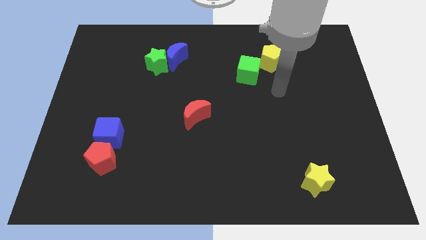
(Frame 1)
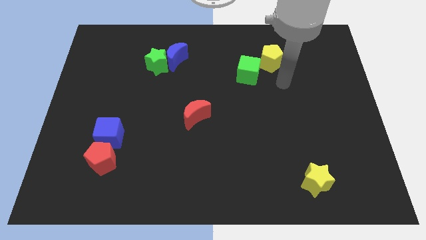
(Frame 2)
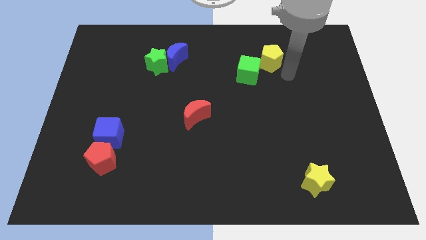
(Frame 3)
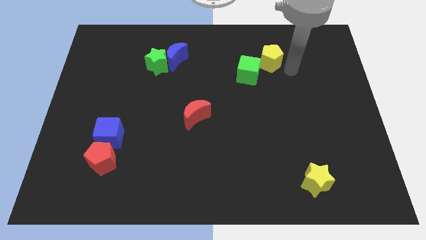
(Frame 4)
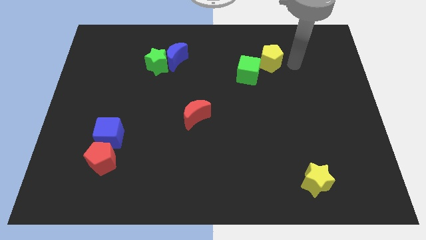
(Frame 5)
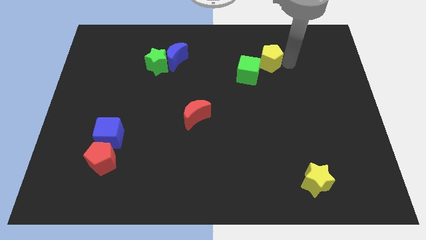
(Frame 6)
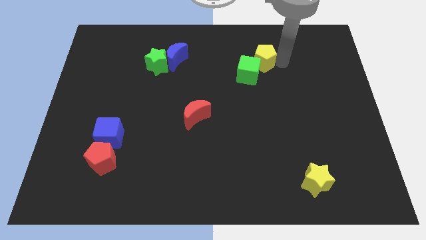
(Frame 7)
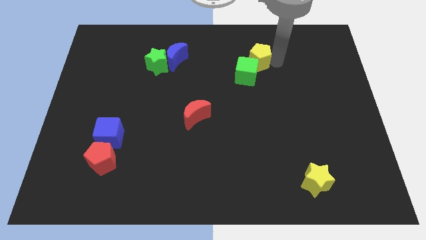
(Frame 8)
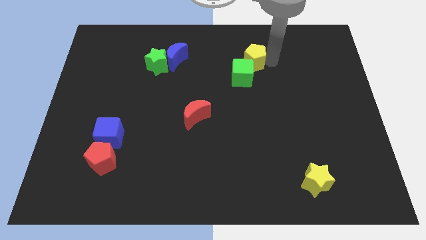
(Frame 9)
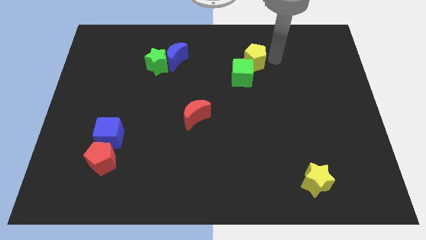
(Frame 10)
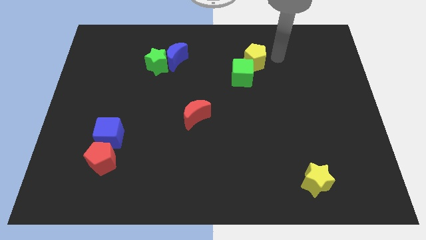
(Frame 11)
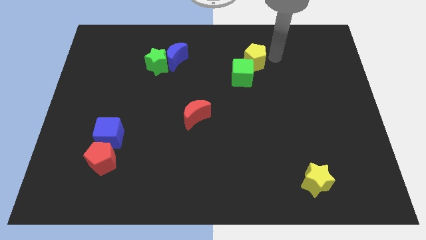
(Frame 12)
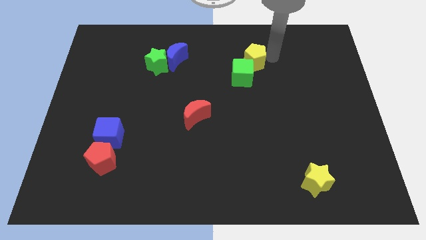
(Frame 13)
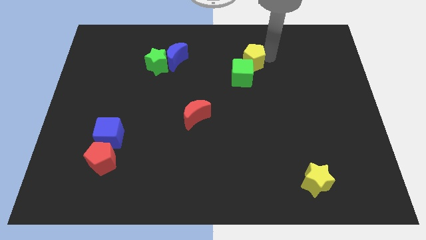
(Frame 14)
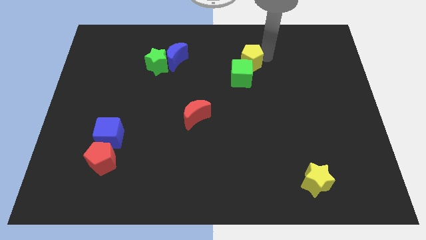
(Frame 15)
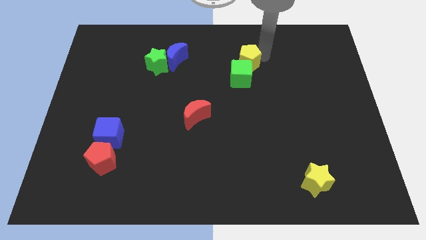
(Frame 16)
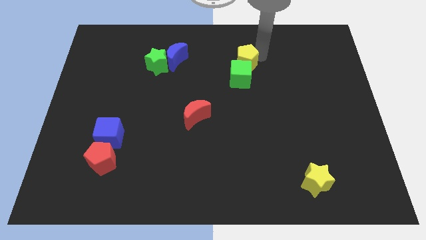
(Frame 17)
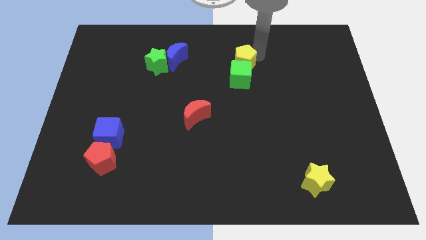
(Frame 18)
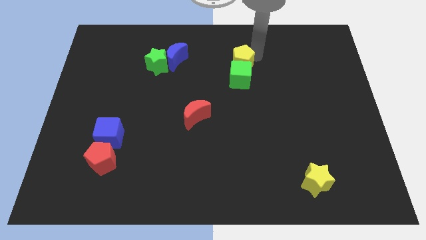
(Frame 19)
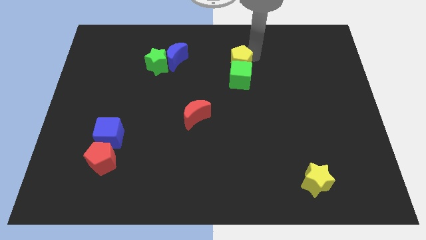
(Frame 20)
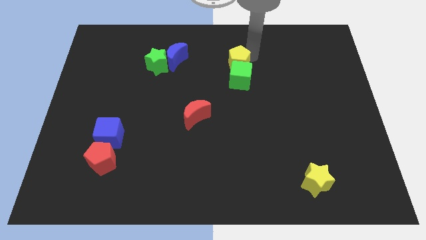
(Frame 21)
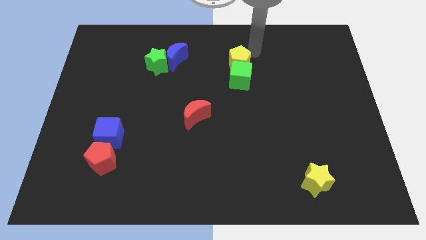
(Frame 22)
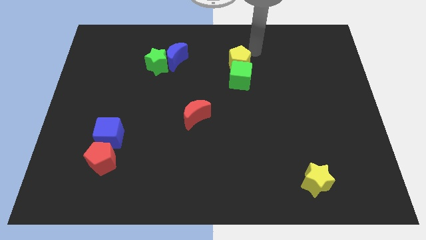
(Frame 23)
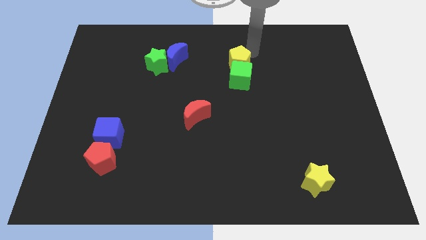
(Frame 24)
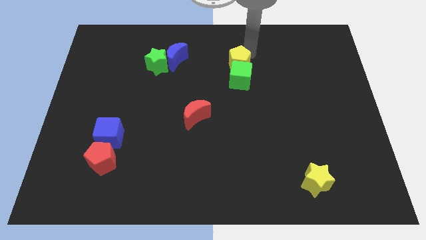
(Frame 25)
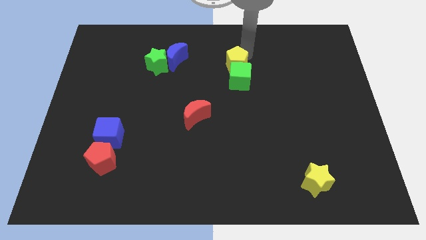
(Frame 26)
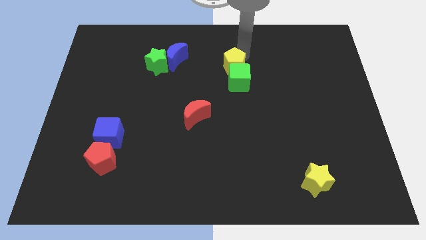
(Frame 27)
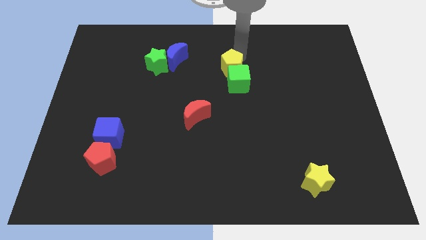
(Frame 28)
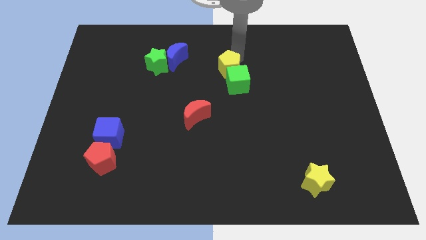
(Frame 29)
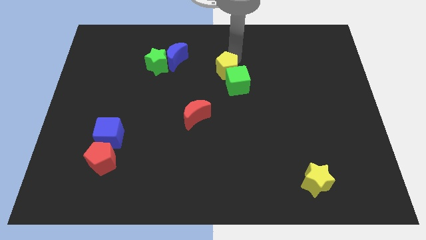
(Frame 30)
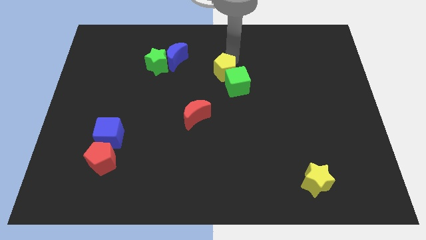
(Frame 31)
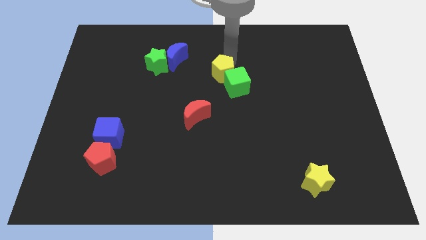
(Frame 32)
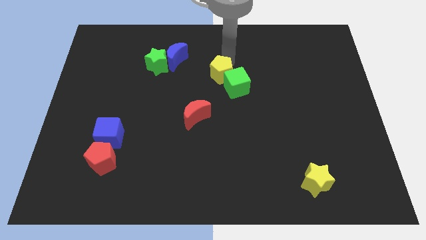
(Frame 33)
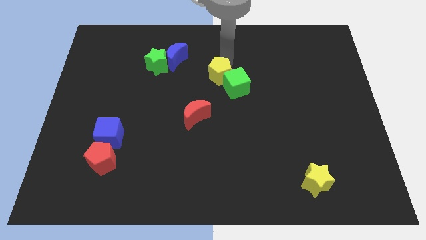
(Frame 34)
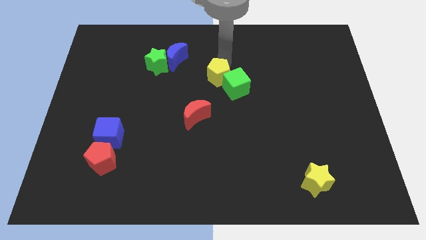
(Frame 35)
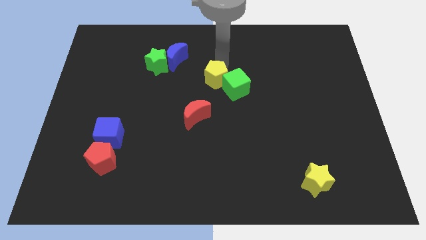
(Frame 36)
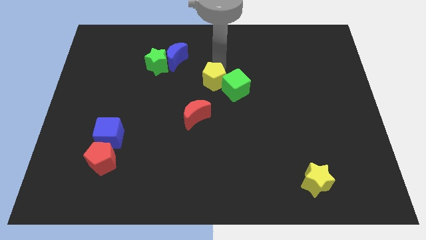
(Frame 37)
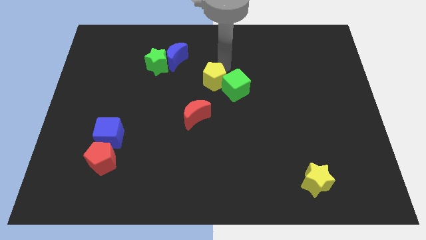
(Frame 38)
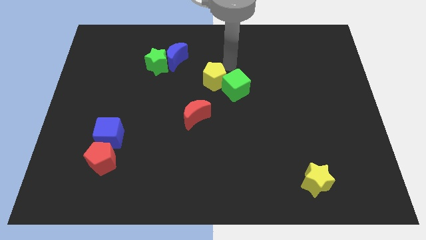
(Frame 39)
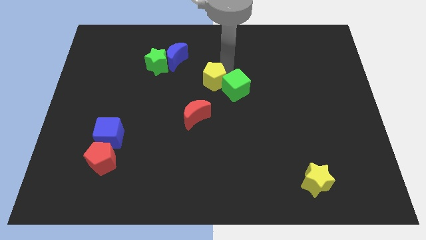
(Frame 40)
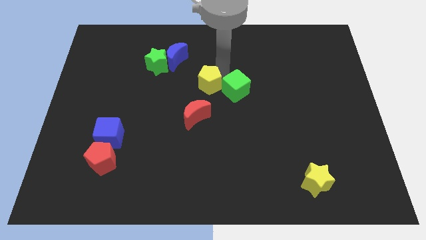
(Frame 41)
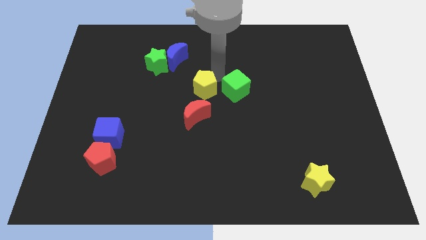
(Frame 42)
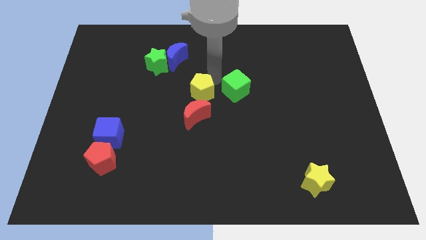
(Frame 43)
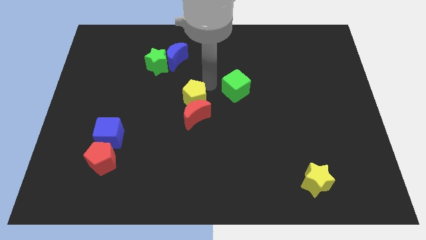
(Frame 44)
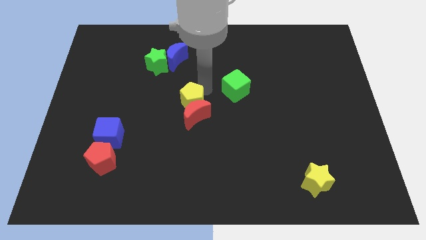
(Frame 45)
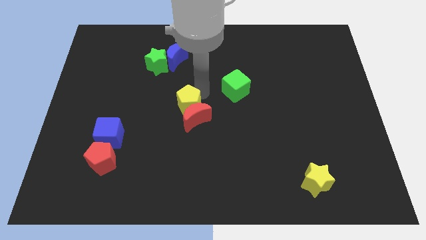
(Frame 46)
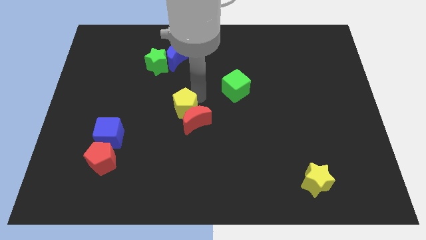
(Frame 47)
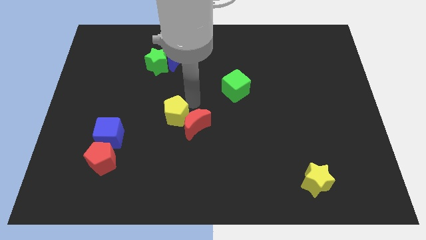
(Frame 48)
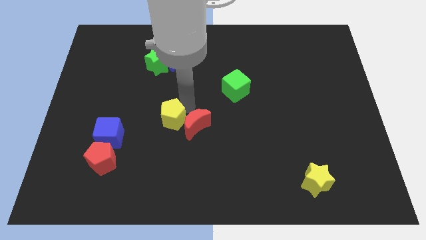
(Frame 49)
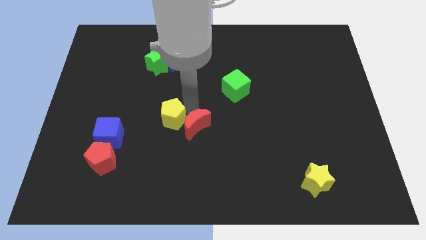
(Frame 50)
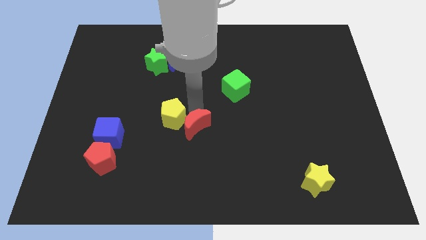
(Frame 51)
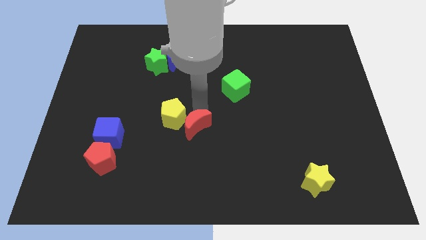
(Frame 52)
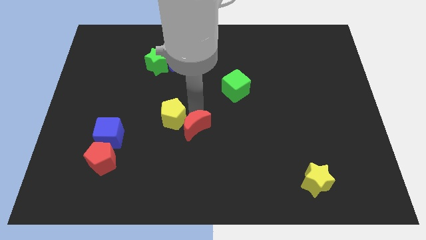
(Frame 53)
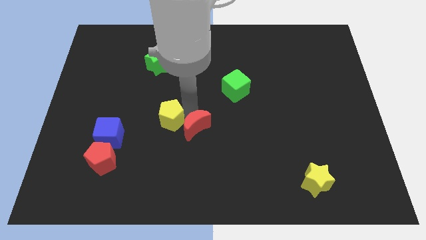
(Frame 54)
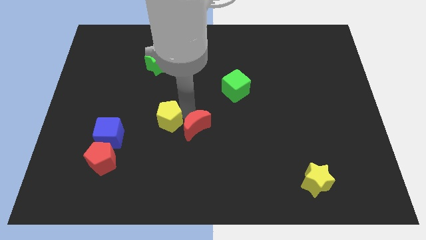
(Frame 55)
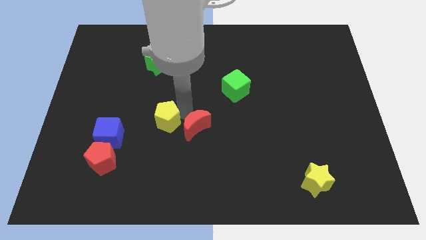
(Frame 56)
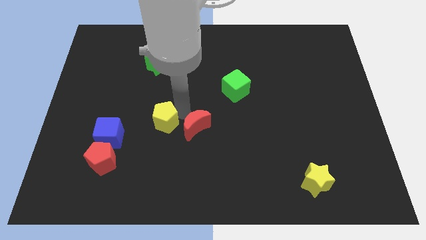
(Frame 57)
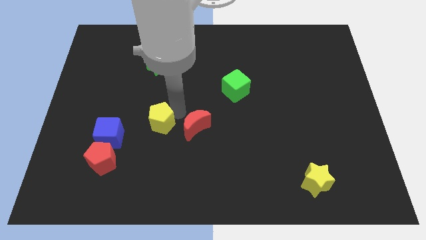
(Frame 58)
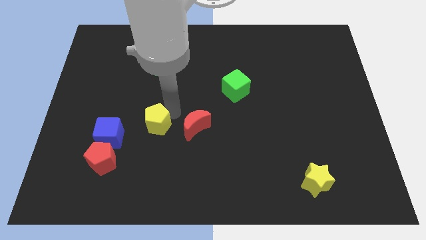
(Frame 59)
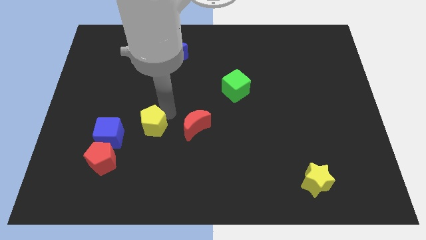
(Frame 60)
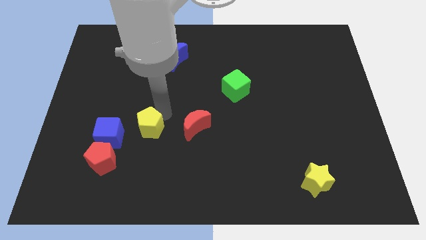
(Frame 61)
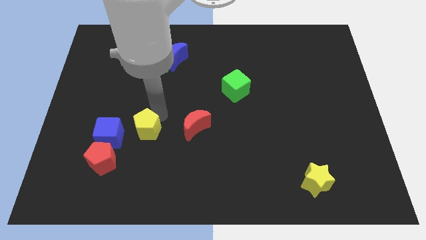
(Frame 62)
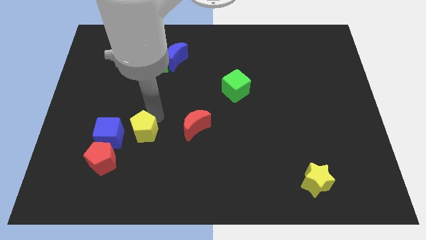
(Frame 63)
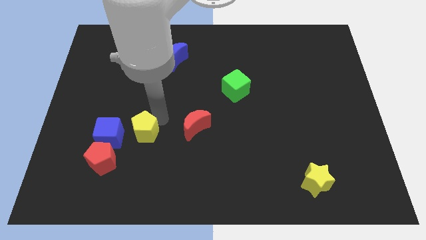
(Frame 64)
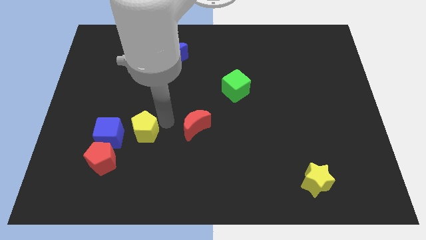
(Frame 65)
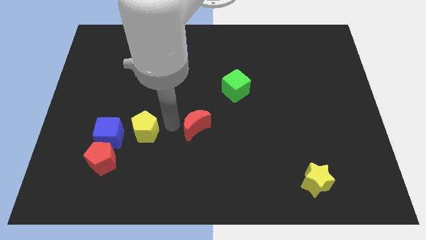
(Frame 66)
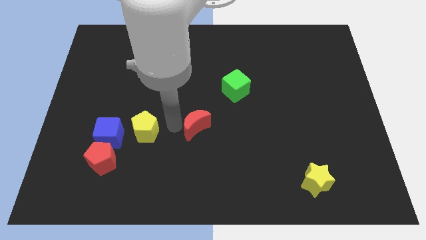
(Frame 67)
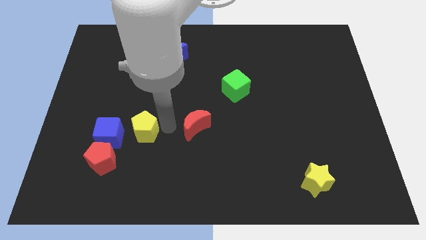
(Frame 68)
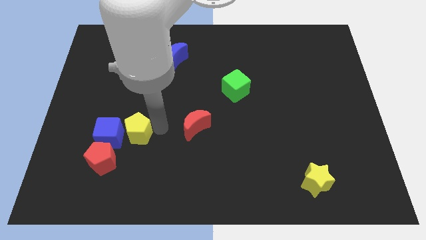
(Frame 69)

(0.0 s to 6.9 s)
push the yellow pentagon towards the blue cube
